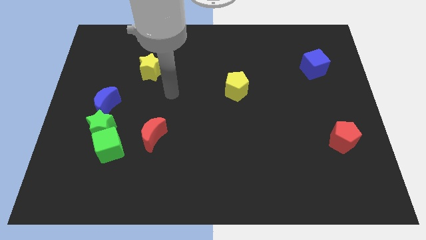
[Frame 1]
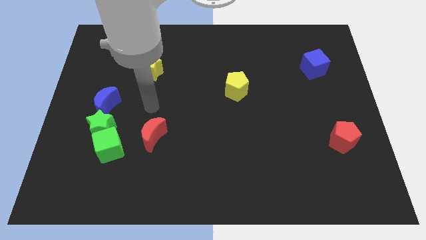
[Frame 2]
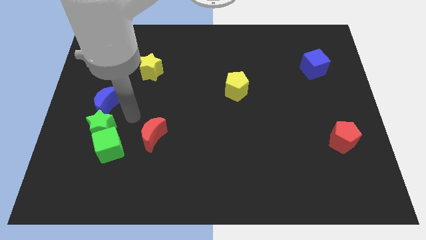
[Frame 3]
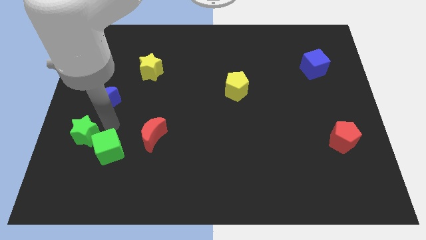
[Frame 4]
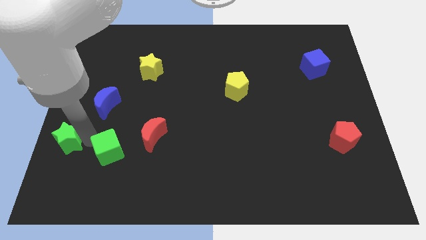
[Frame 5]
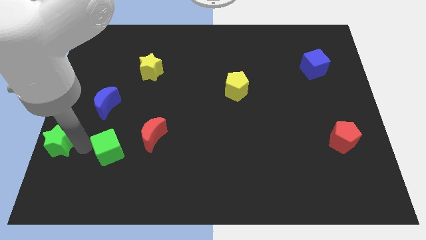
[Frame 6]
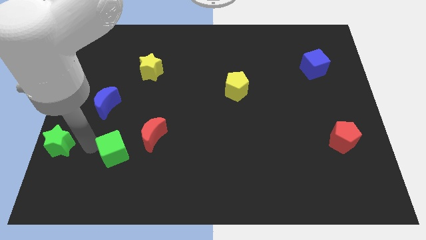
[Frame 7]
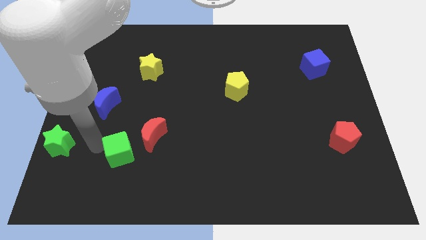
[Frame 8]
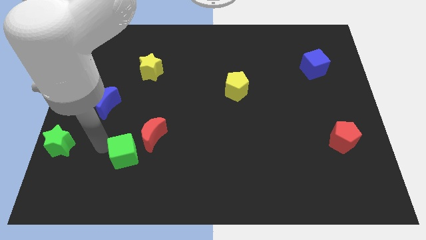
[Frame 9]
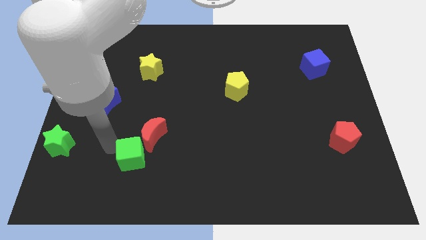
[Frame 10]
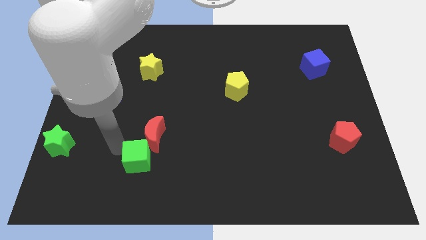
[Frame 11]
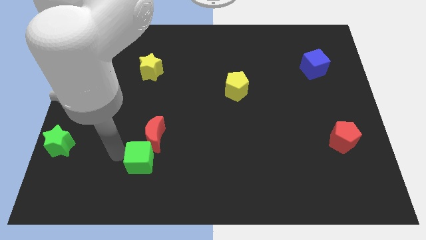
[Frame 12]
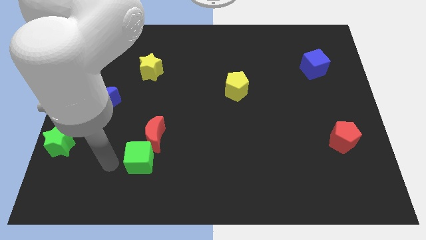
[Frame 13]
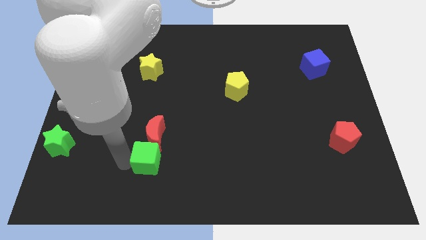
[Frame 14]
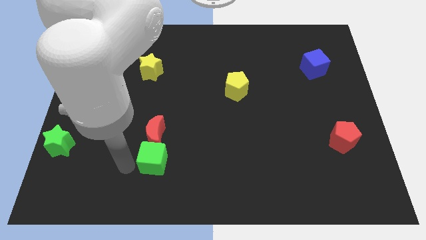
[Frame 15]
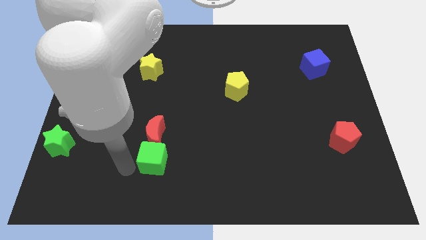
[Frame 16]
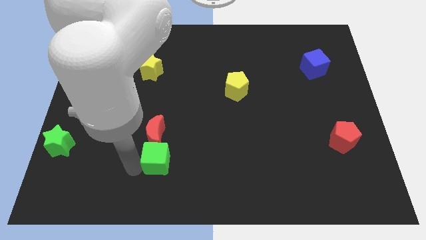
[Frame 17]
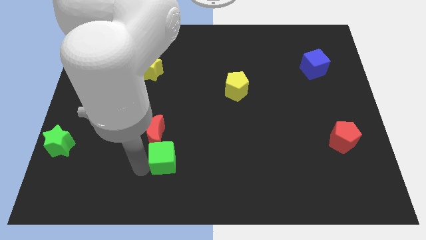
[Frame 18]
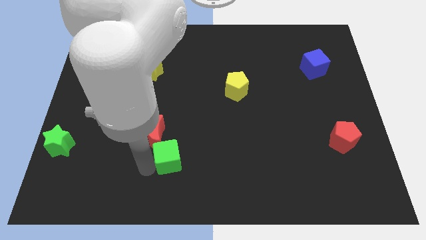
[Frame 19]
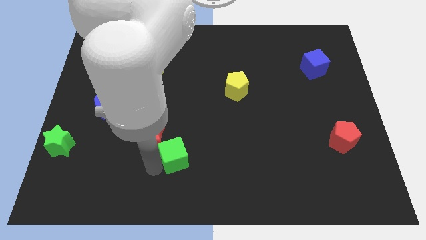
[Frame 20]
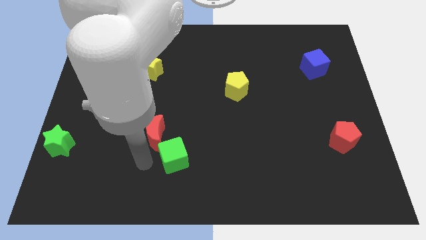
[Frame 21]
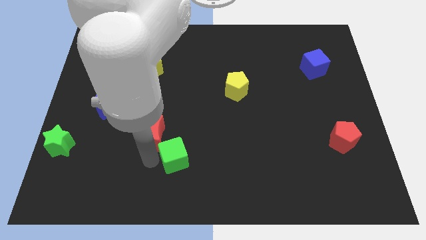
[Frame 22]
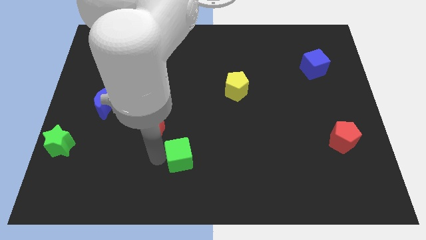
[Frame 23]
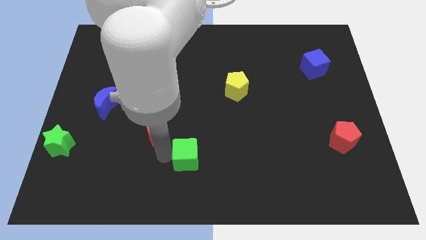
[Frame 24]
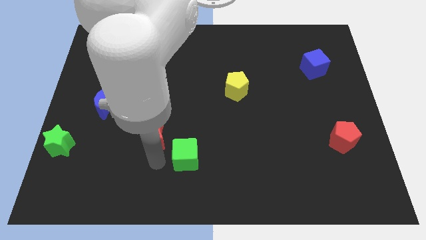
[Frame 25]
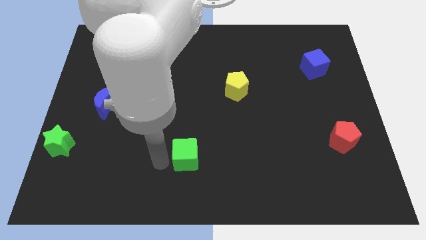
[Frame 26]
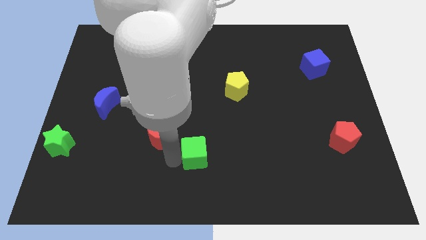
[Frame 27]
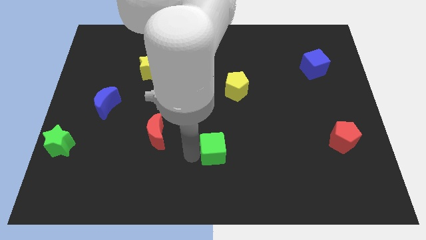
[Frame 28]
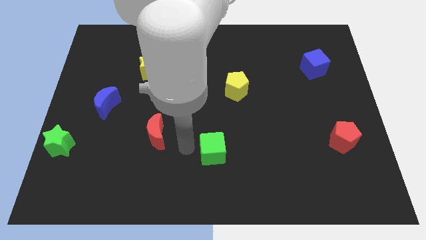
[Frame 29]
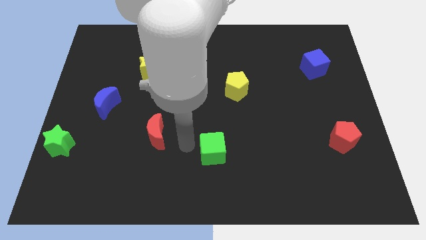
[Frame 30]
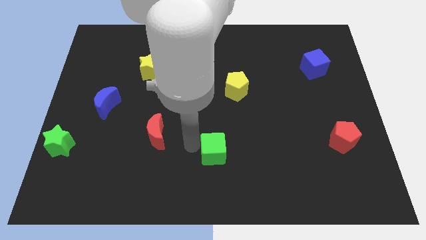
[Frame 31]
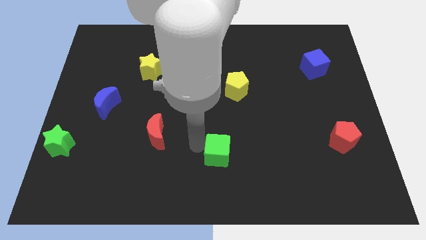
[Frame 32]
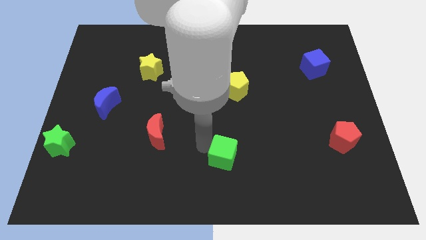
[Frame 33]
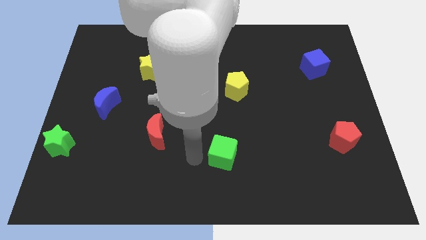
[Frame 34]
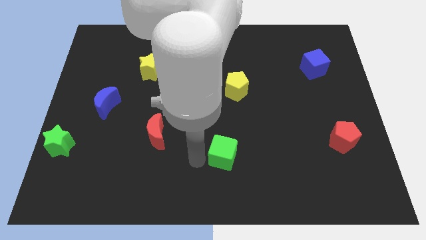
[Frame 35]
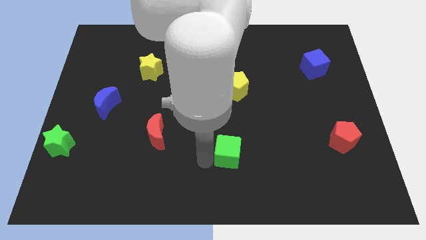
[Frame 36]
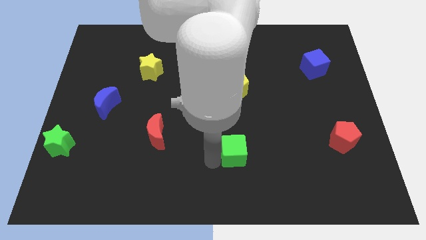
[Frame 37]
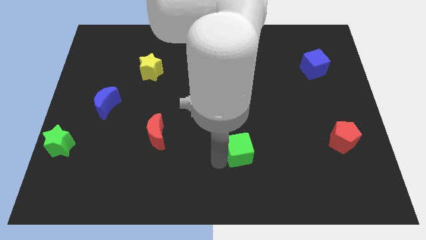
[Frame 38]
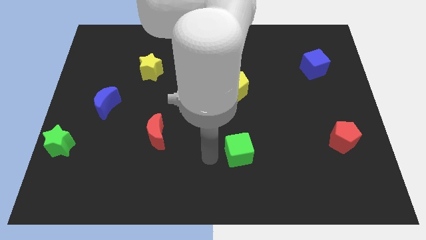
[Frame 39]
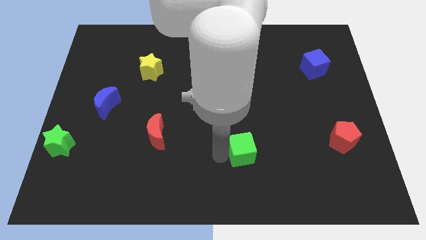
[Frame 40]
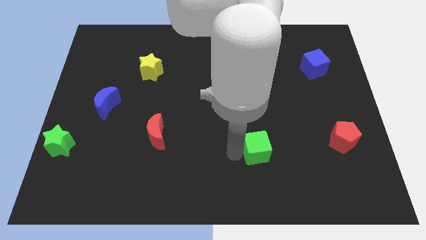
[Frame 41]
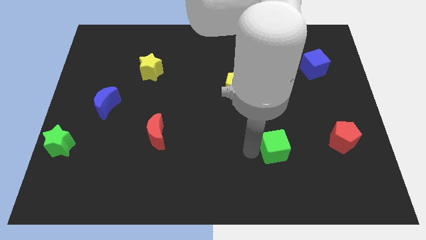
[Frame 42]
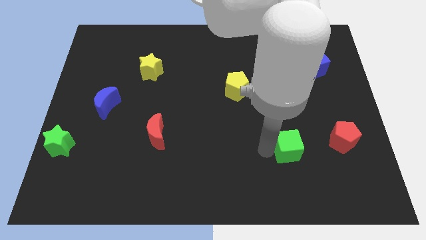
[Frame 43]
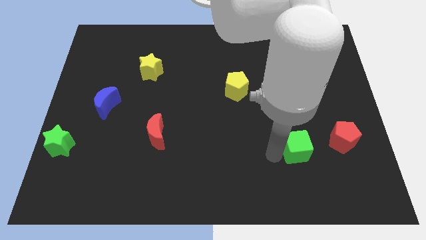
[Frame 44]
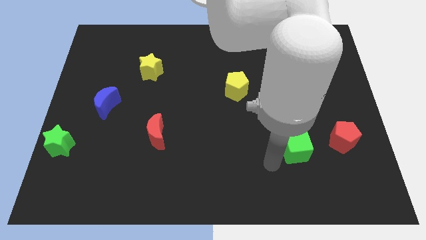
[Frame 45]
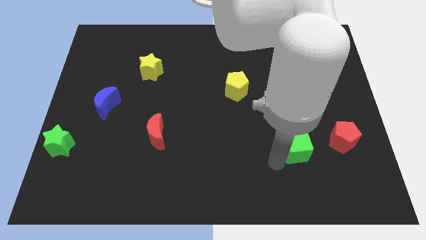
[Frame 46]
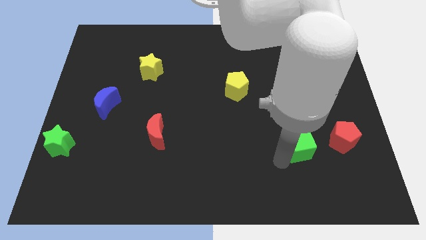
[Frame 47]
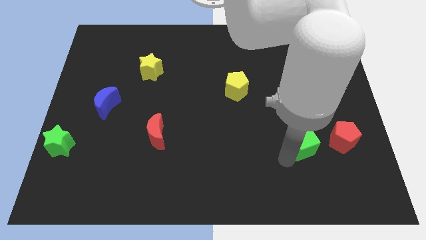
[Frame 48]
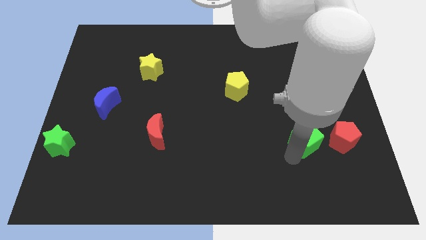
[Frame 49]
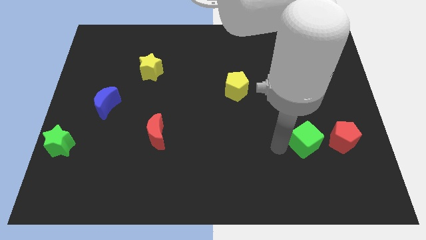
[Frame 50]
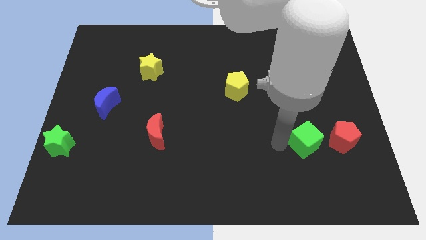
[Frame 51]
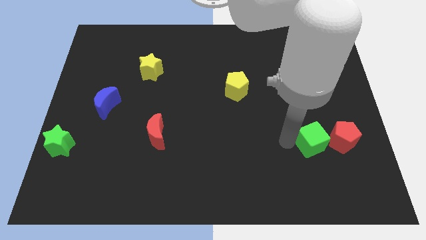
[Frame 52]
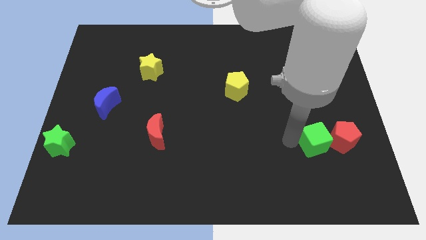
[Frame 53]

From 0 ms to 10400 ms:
slide the green cube next to the red pentagon

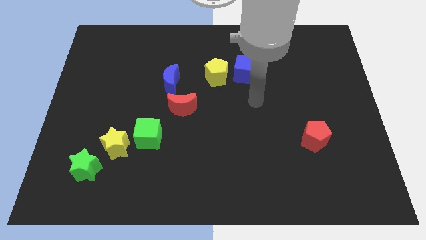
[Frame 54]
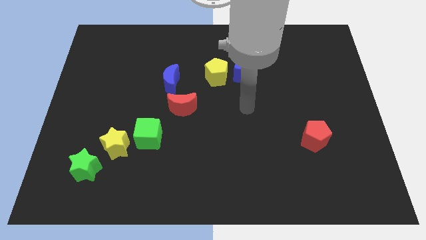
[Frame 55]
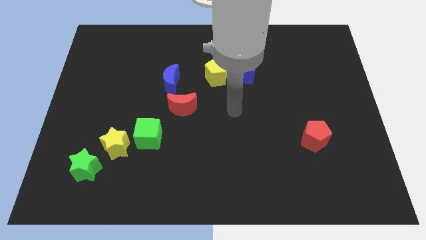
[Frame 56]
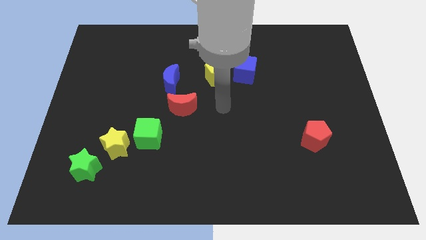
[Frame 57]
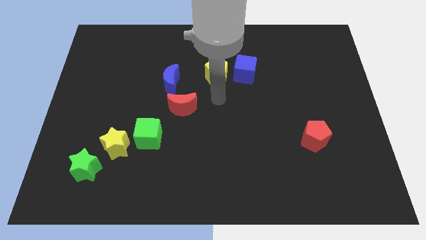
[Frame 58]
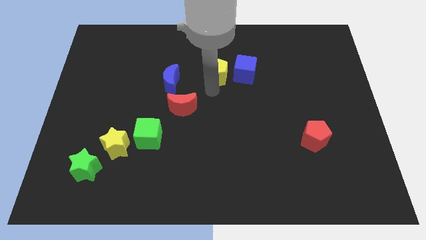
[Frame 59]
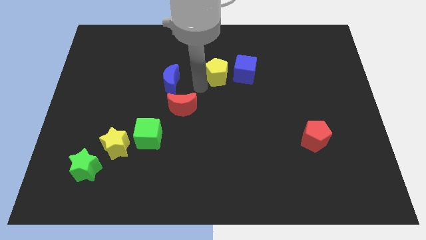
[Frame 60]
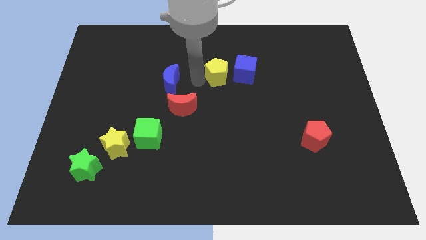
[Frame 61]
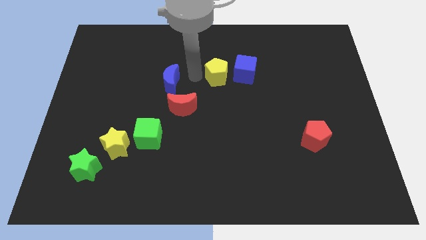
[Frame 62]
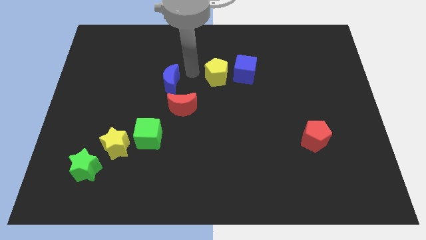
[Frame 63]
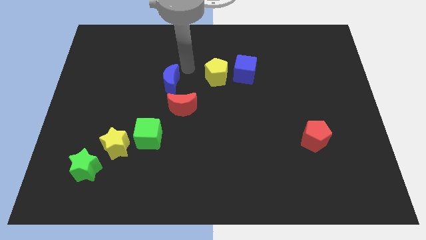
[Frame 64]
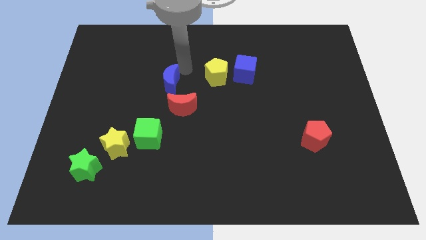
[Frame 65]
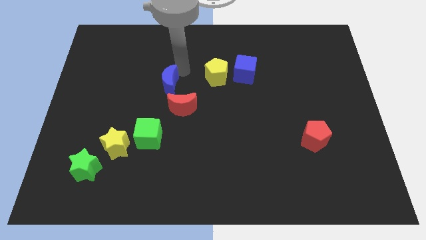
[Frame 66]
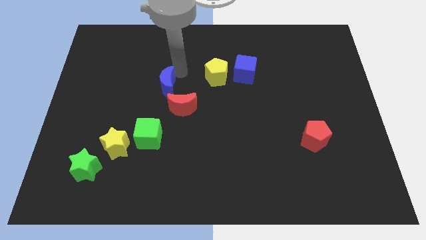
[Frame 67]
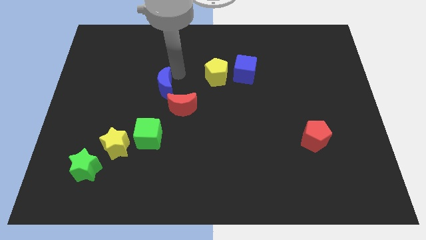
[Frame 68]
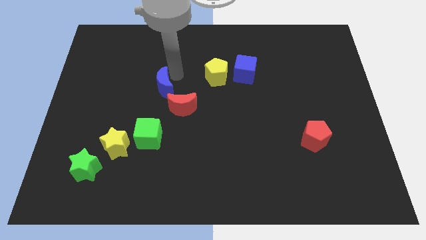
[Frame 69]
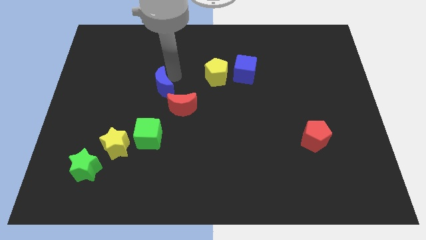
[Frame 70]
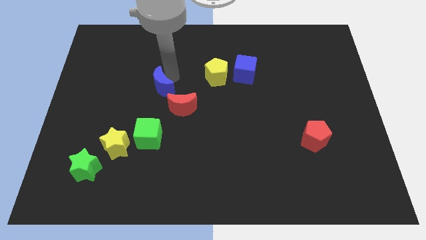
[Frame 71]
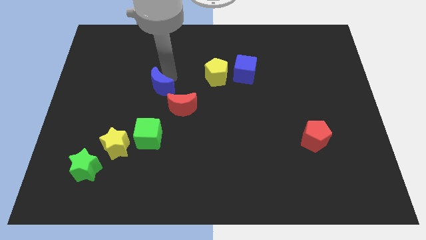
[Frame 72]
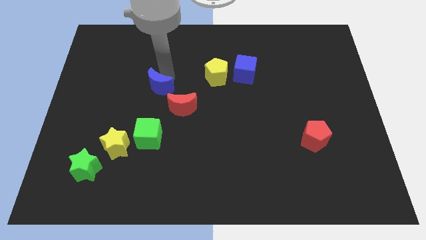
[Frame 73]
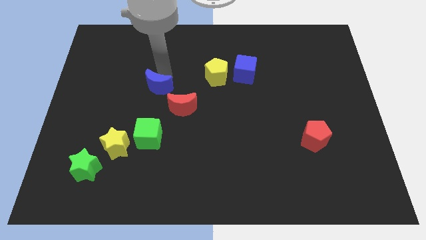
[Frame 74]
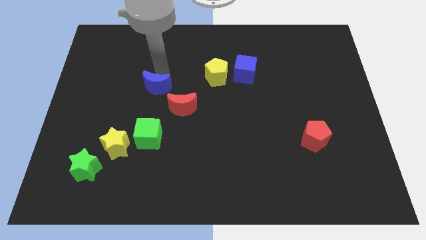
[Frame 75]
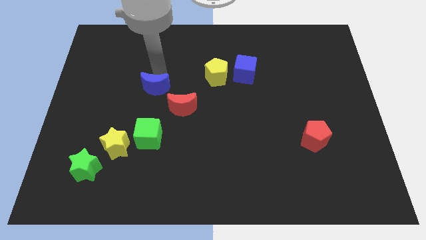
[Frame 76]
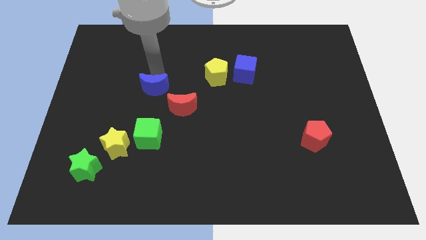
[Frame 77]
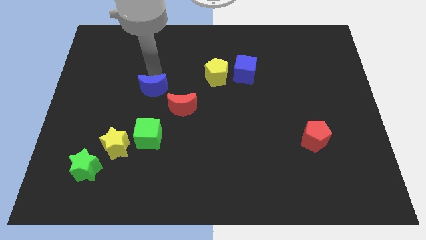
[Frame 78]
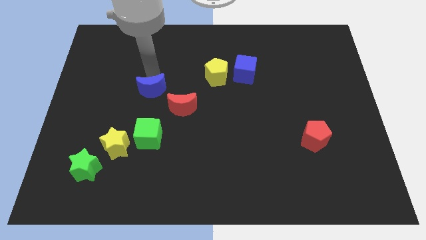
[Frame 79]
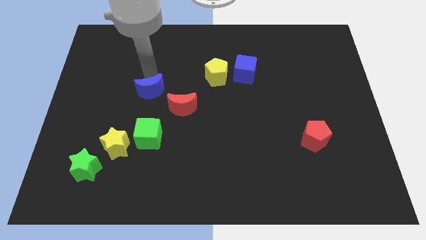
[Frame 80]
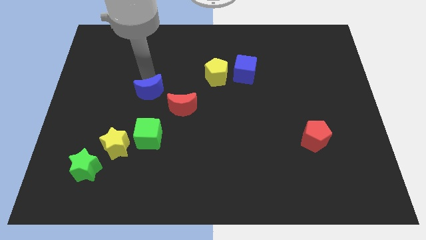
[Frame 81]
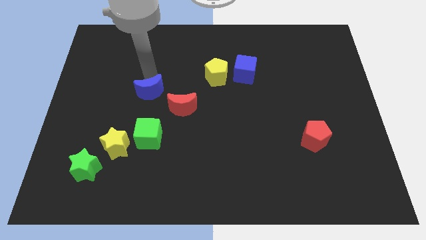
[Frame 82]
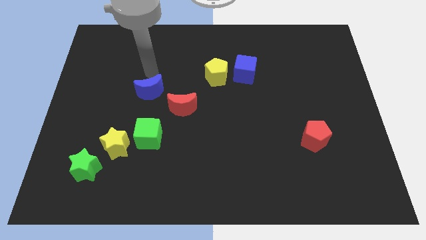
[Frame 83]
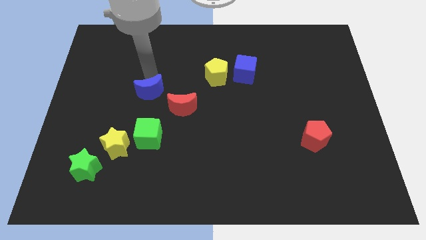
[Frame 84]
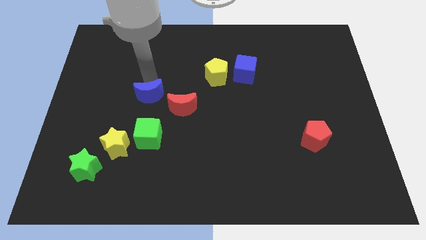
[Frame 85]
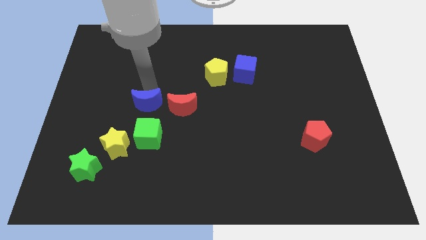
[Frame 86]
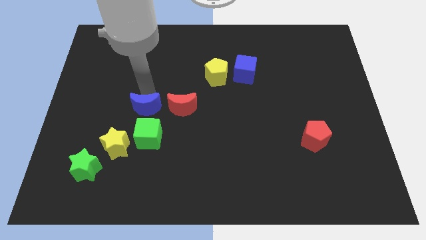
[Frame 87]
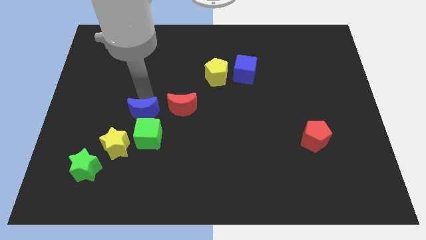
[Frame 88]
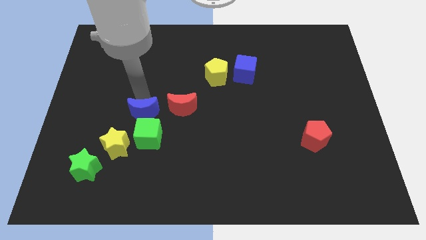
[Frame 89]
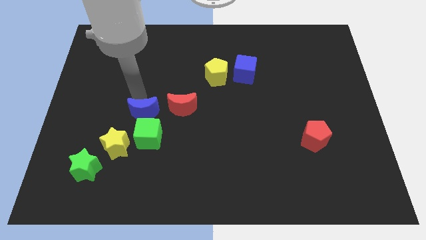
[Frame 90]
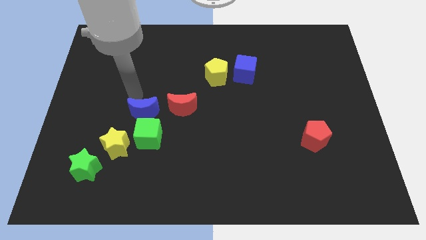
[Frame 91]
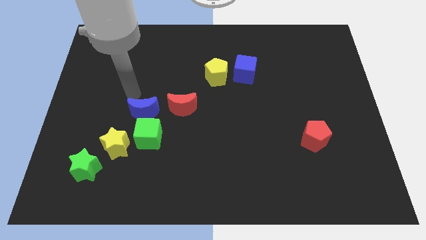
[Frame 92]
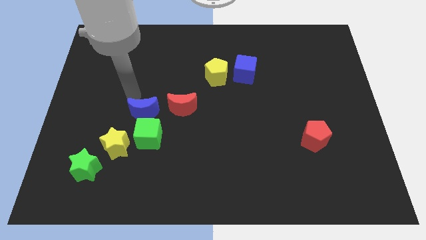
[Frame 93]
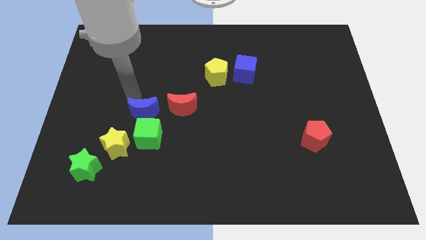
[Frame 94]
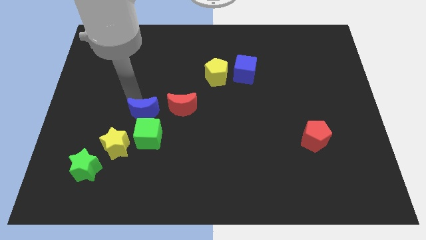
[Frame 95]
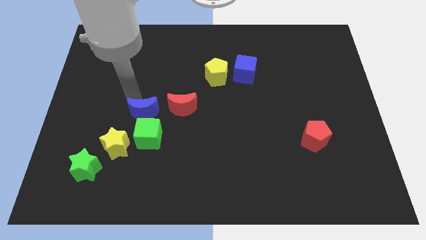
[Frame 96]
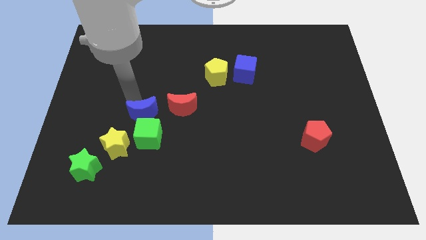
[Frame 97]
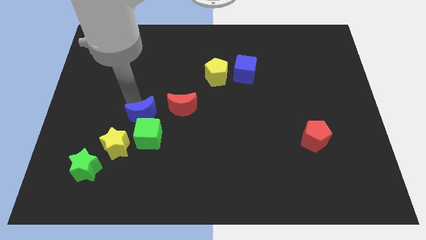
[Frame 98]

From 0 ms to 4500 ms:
push the blue moon close to the green cube
